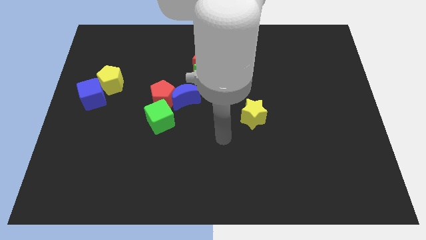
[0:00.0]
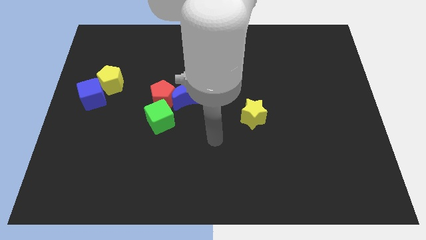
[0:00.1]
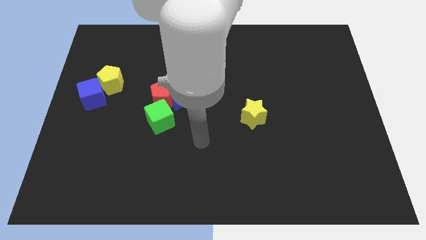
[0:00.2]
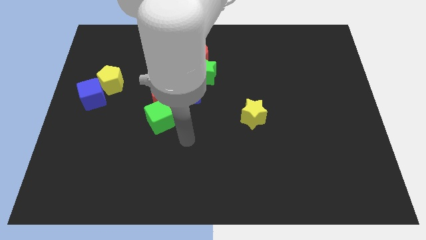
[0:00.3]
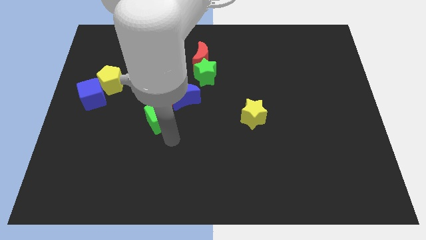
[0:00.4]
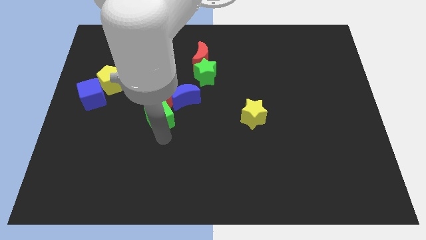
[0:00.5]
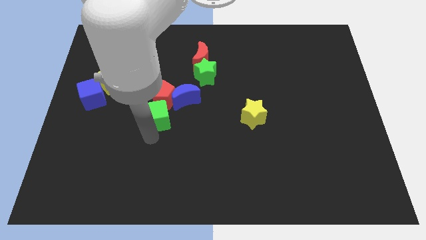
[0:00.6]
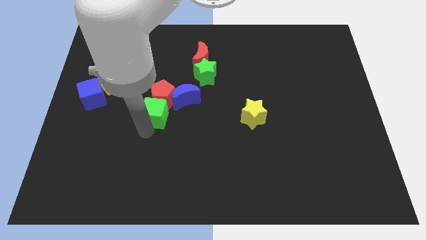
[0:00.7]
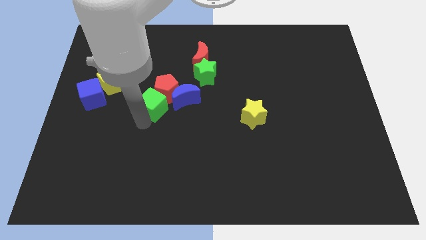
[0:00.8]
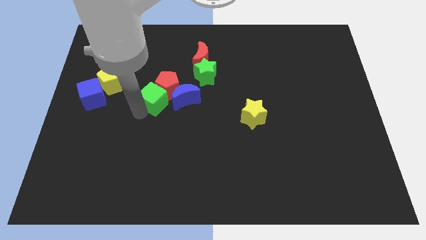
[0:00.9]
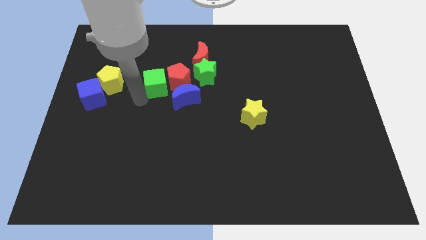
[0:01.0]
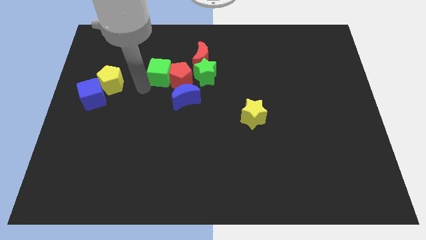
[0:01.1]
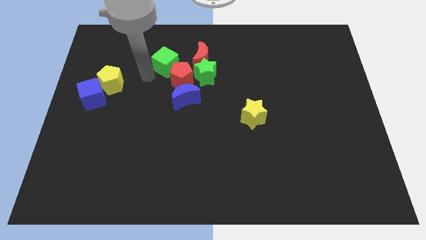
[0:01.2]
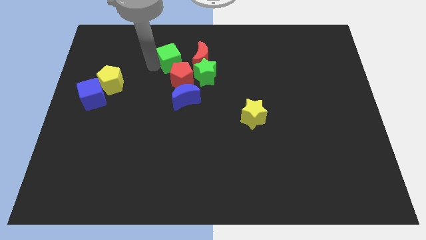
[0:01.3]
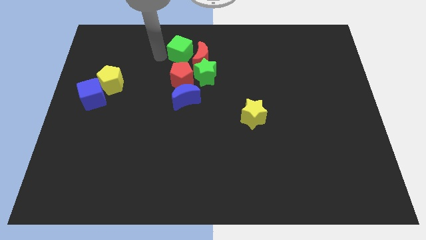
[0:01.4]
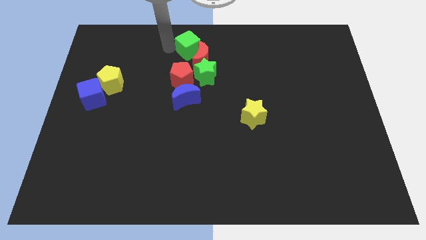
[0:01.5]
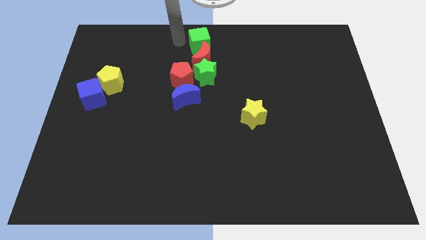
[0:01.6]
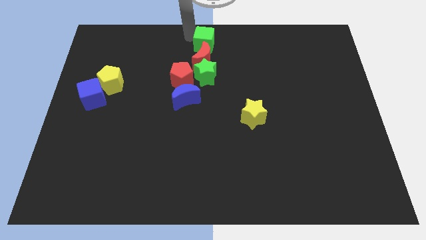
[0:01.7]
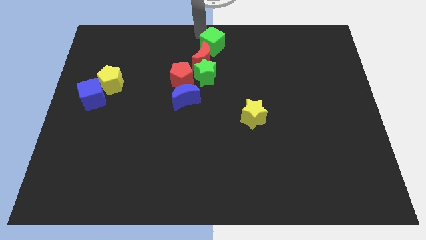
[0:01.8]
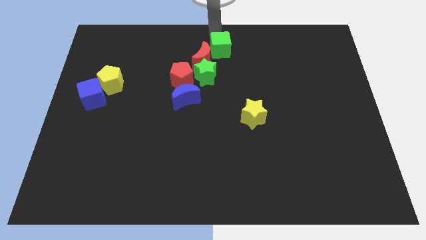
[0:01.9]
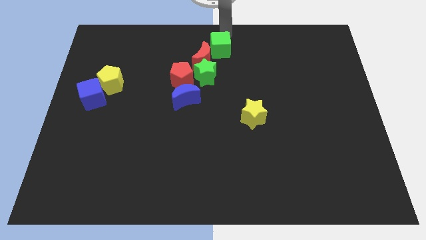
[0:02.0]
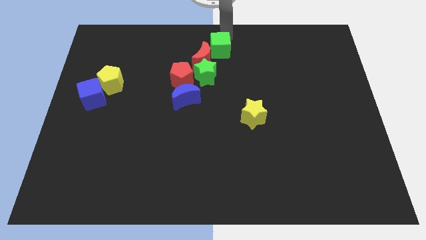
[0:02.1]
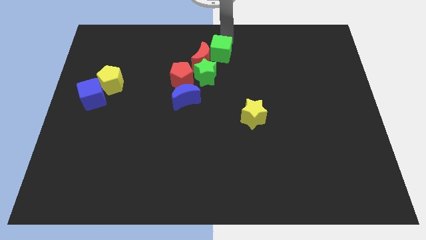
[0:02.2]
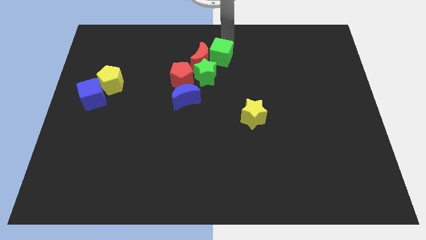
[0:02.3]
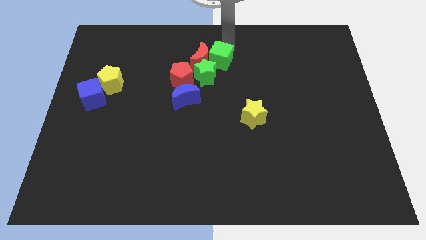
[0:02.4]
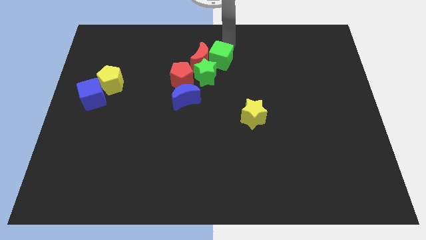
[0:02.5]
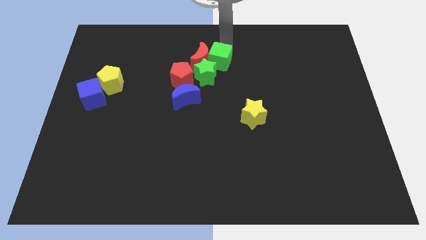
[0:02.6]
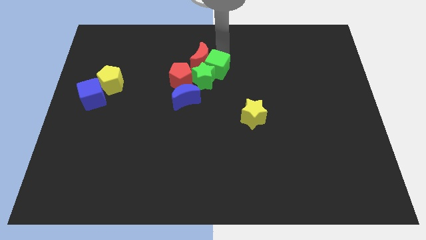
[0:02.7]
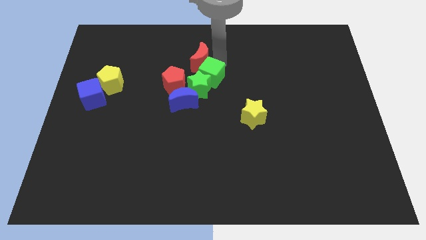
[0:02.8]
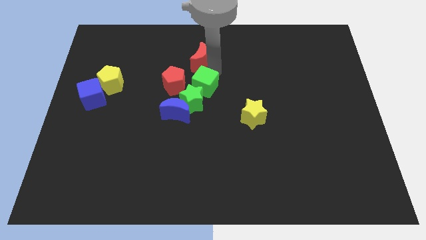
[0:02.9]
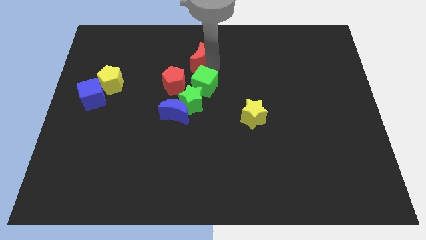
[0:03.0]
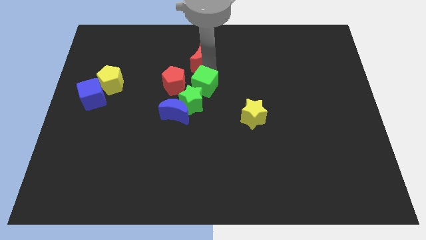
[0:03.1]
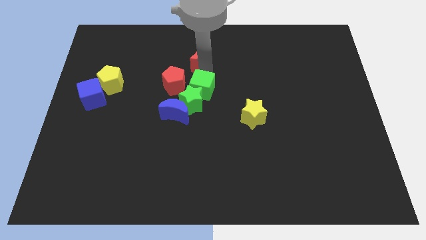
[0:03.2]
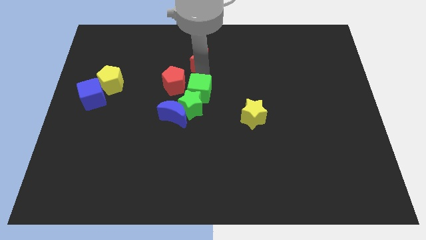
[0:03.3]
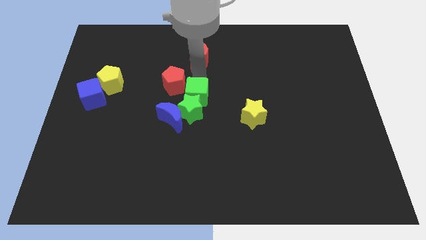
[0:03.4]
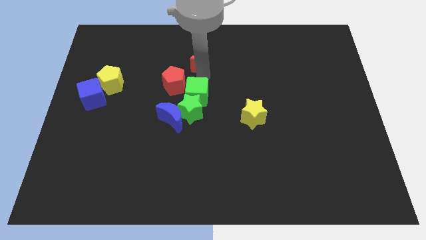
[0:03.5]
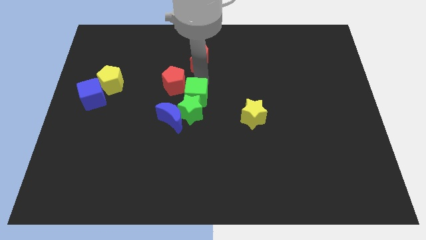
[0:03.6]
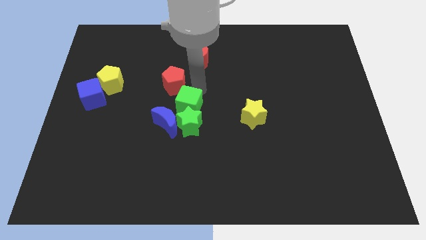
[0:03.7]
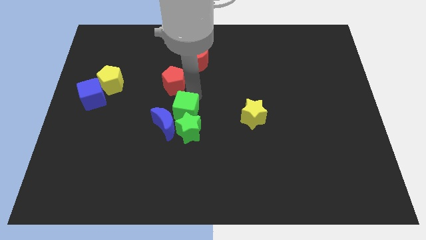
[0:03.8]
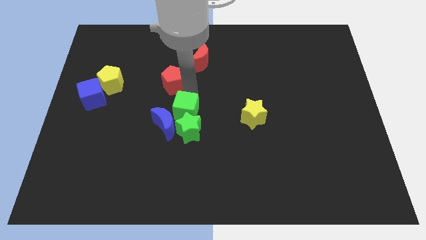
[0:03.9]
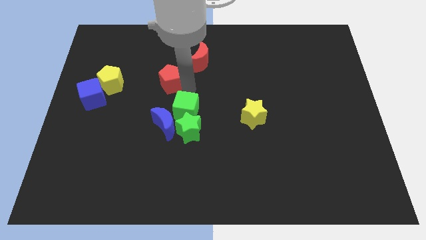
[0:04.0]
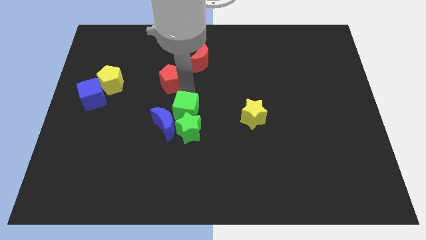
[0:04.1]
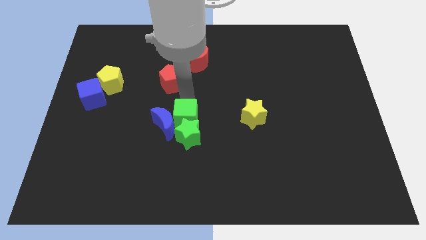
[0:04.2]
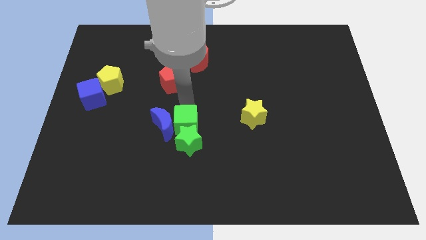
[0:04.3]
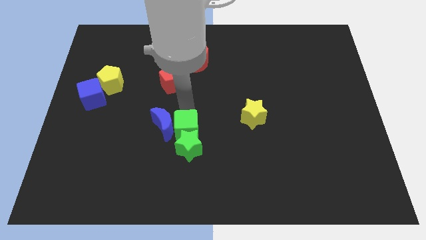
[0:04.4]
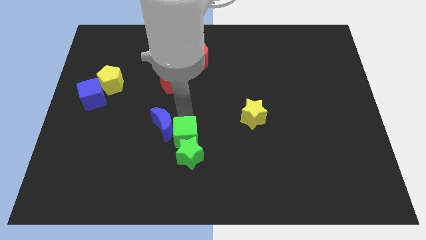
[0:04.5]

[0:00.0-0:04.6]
slide the green cube somewhat down and then to the right

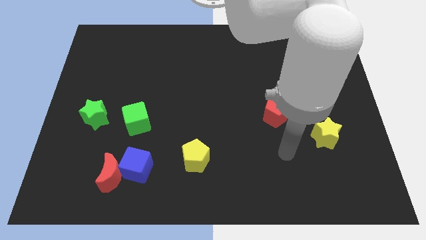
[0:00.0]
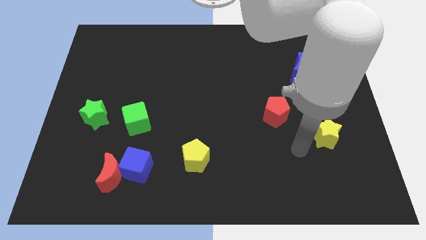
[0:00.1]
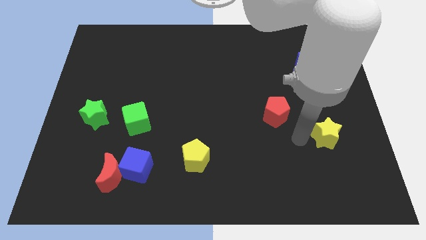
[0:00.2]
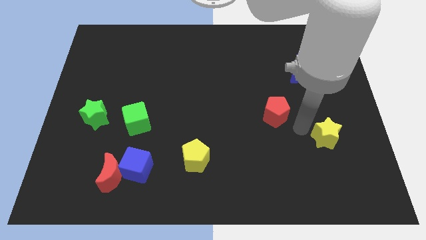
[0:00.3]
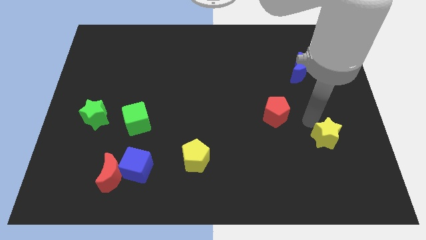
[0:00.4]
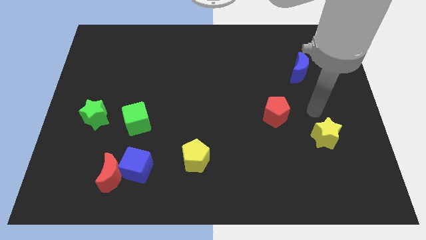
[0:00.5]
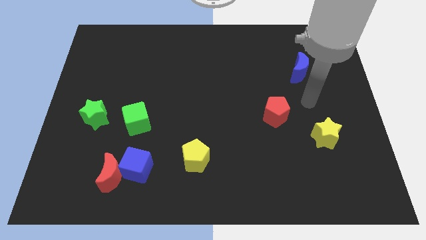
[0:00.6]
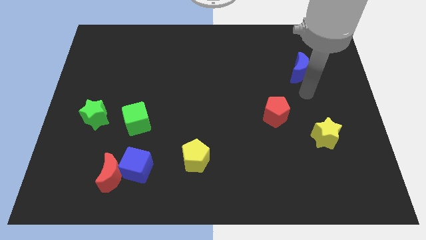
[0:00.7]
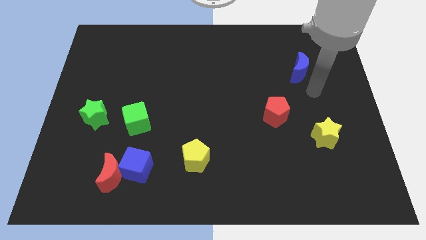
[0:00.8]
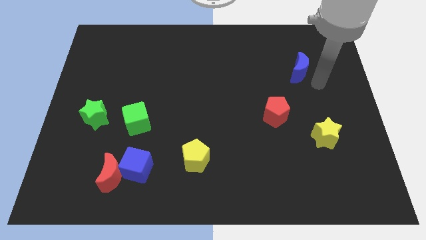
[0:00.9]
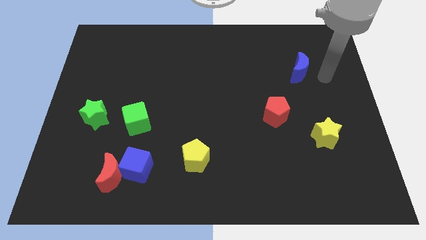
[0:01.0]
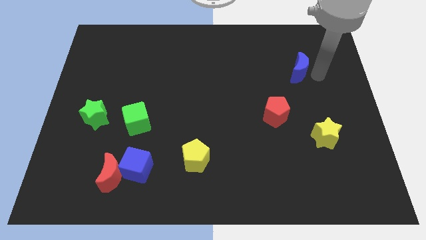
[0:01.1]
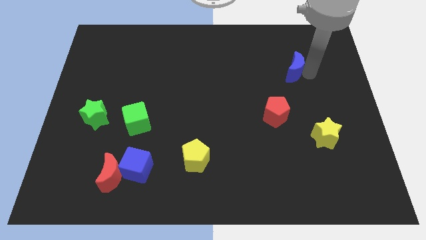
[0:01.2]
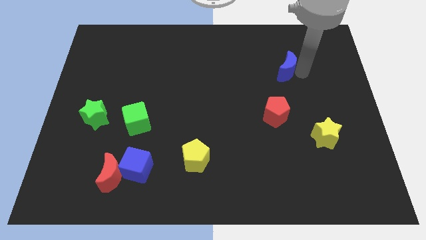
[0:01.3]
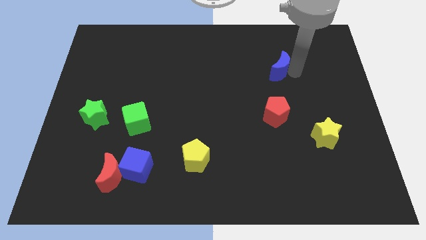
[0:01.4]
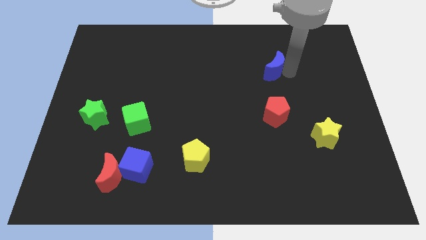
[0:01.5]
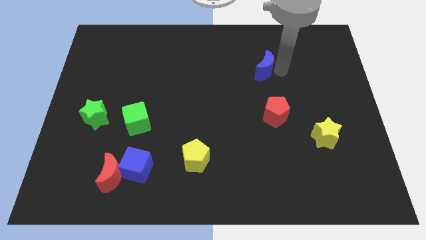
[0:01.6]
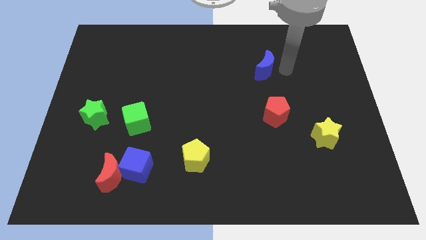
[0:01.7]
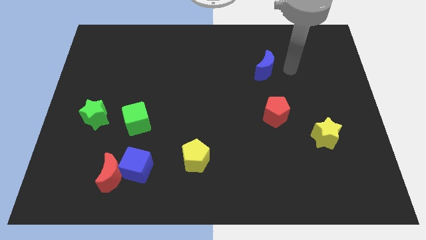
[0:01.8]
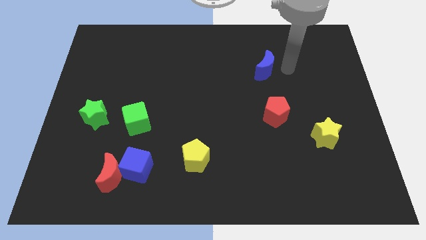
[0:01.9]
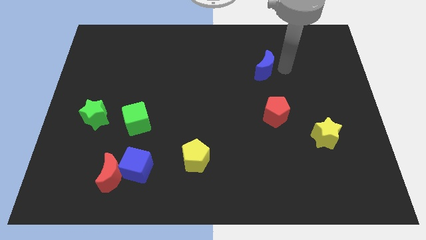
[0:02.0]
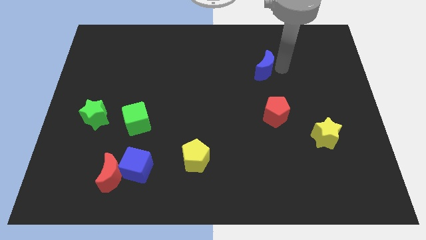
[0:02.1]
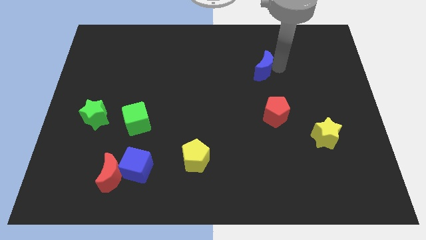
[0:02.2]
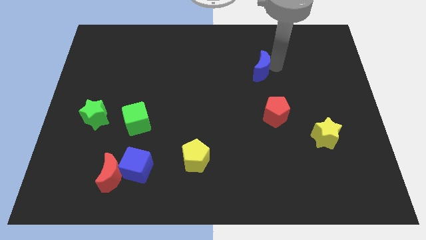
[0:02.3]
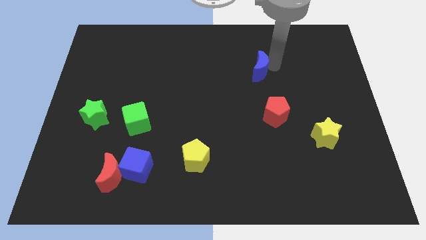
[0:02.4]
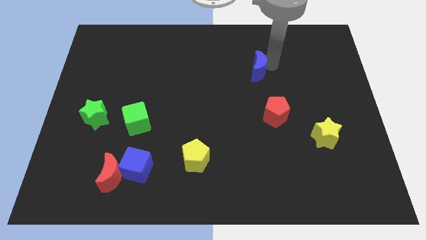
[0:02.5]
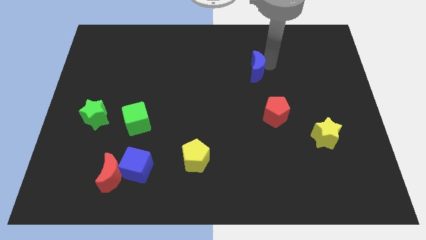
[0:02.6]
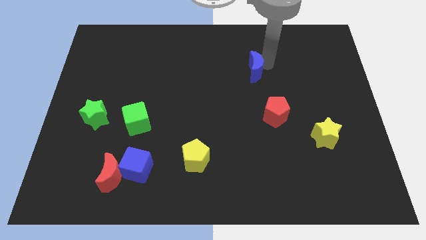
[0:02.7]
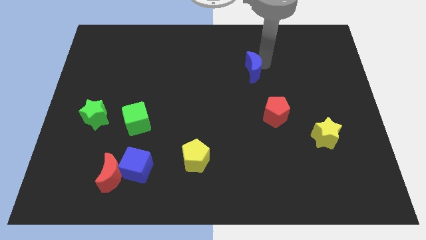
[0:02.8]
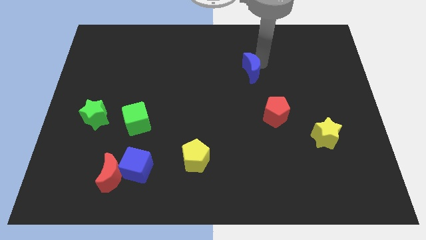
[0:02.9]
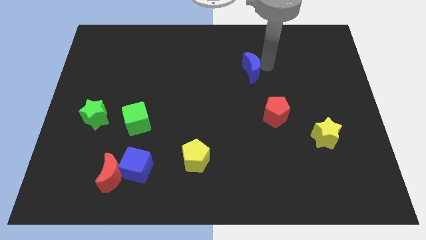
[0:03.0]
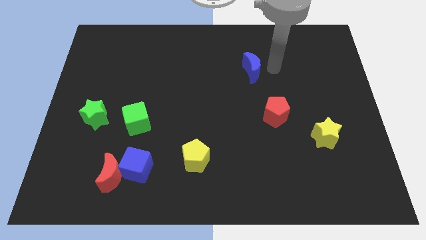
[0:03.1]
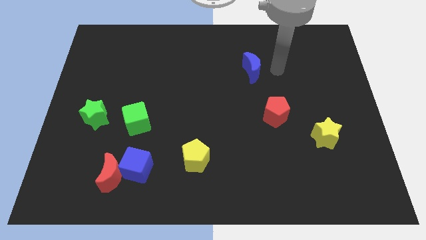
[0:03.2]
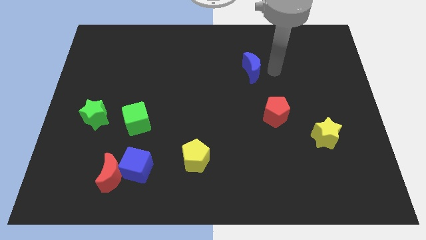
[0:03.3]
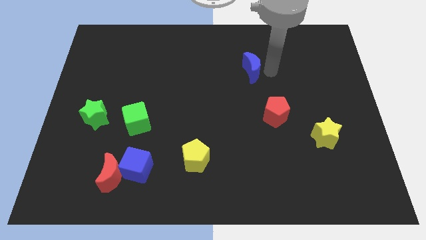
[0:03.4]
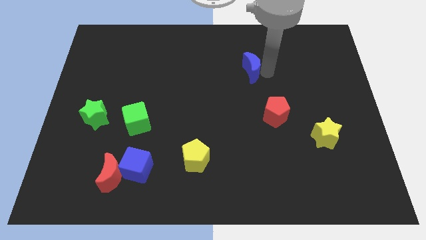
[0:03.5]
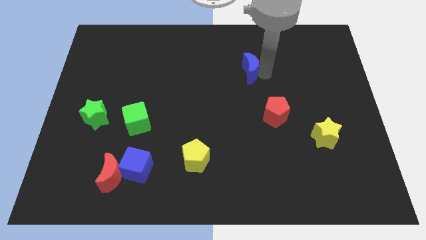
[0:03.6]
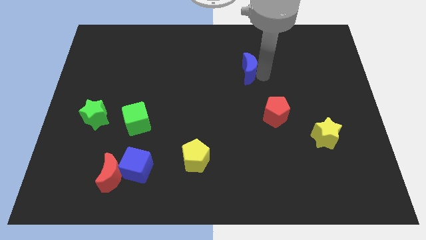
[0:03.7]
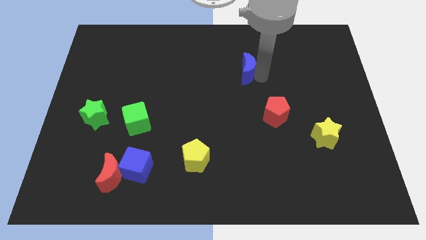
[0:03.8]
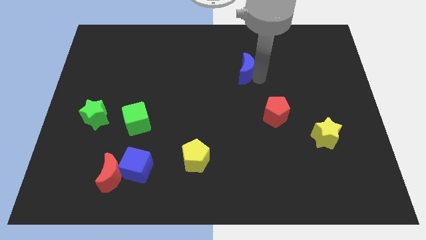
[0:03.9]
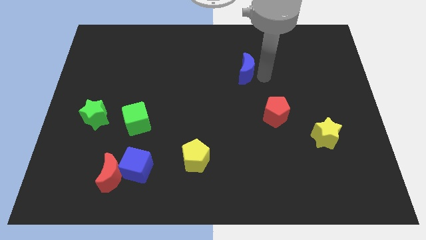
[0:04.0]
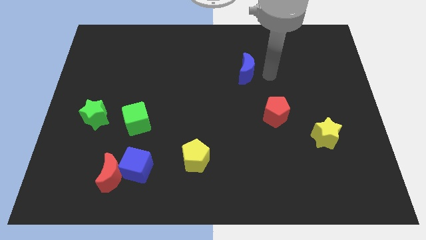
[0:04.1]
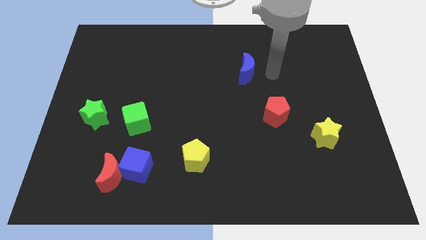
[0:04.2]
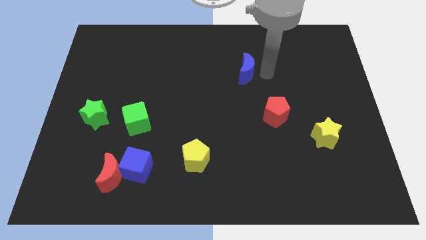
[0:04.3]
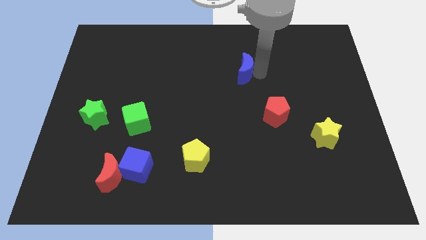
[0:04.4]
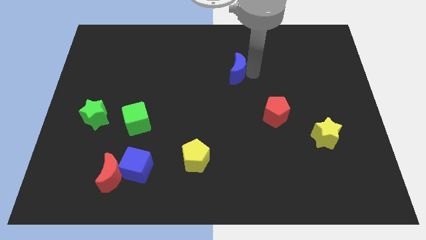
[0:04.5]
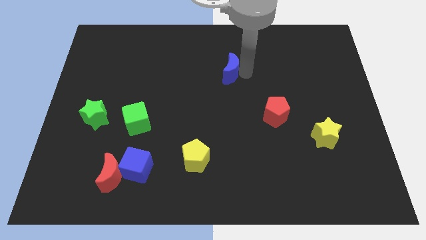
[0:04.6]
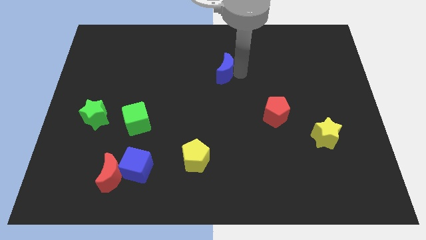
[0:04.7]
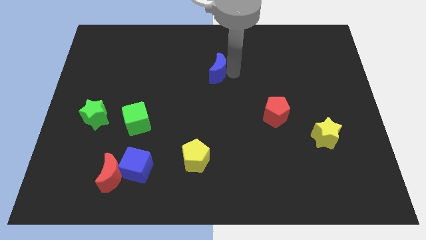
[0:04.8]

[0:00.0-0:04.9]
push the blue moon left
